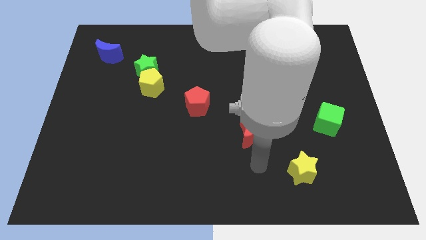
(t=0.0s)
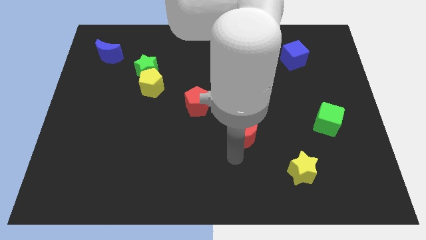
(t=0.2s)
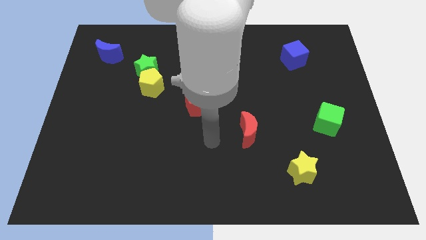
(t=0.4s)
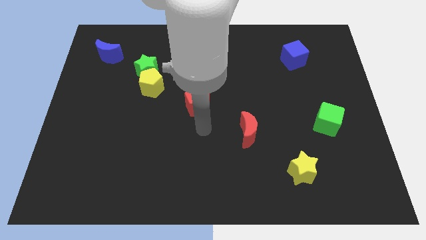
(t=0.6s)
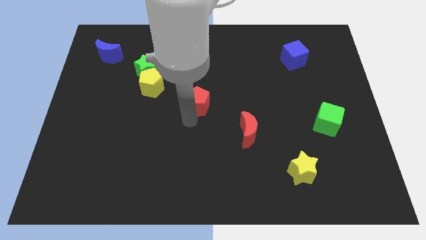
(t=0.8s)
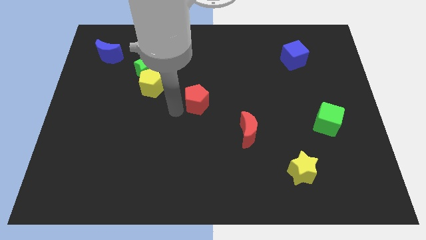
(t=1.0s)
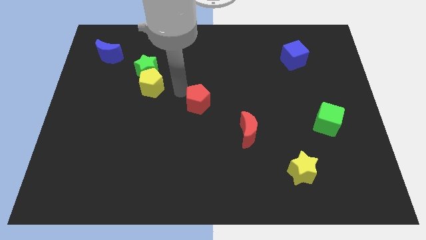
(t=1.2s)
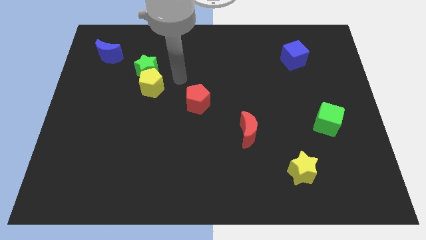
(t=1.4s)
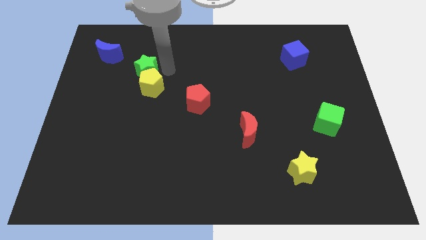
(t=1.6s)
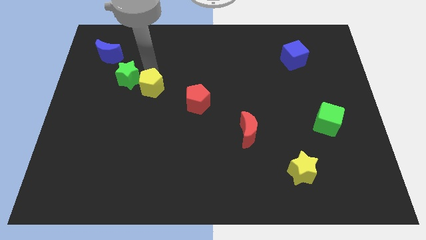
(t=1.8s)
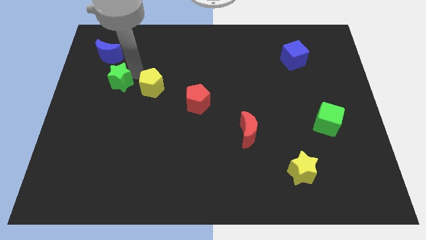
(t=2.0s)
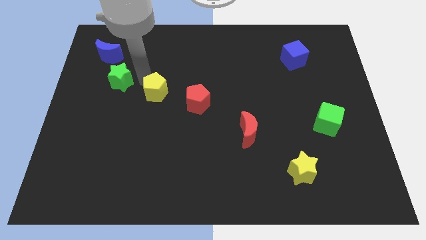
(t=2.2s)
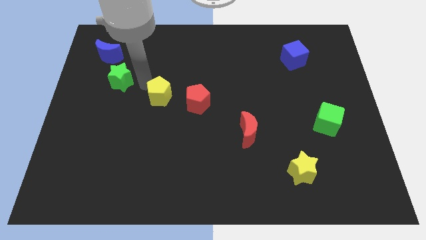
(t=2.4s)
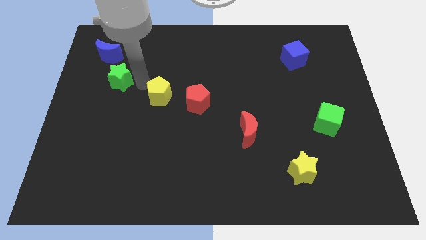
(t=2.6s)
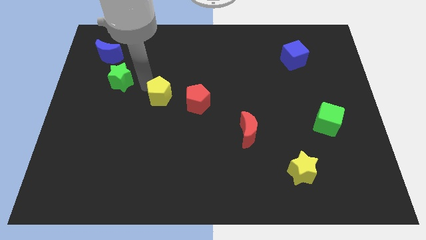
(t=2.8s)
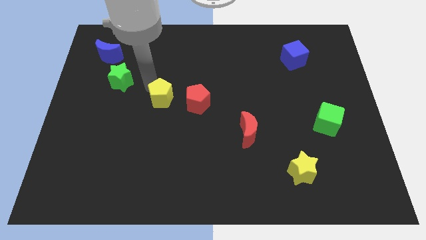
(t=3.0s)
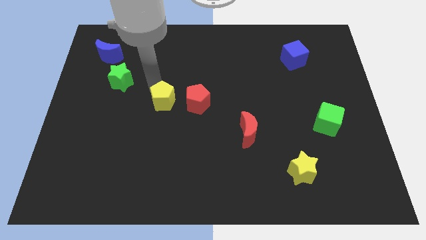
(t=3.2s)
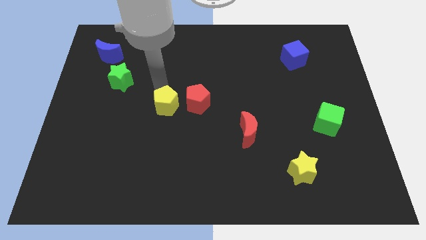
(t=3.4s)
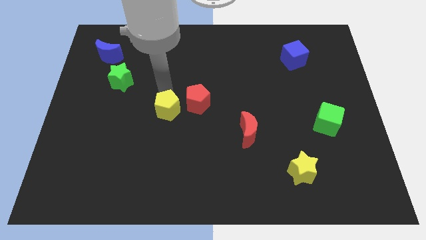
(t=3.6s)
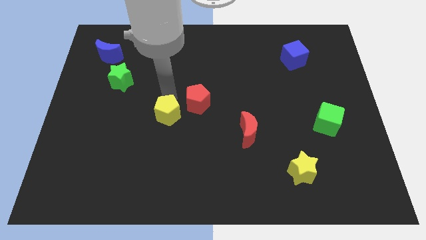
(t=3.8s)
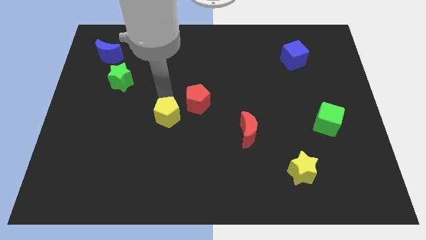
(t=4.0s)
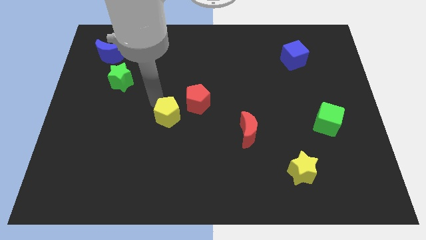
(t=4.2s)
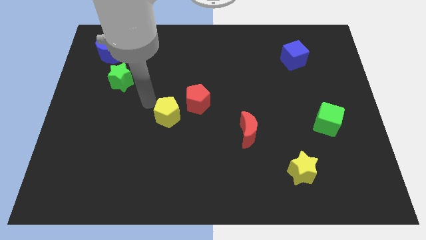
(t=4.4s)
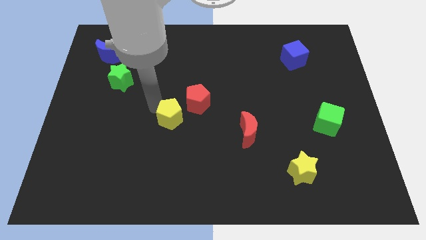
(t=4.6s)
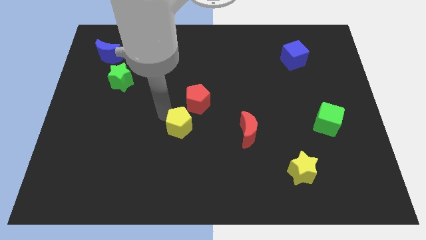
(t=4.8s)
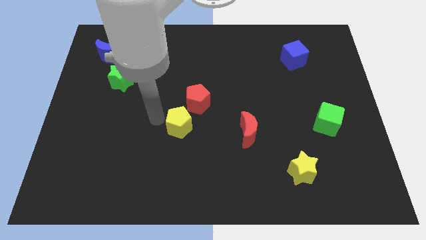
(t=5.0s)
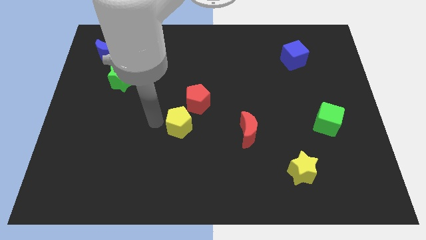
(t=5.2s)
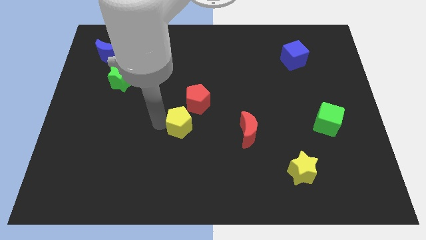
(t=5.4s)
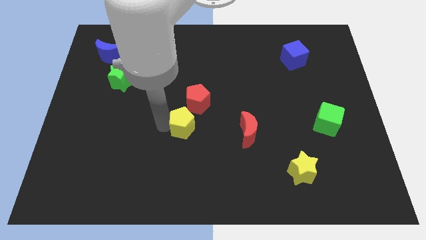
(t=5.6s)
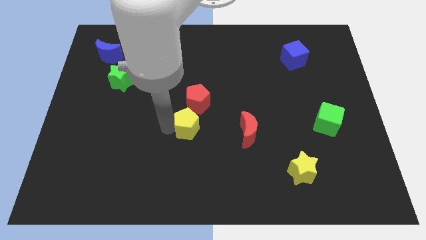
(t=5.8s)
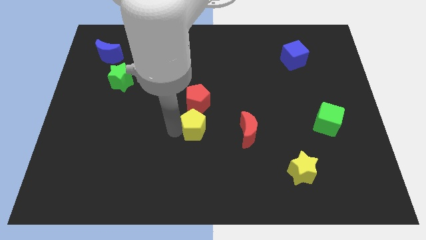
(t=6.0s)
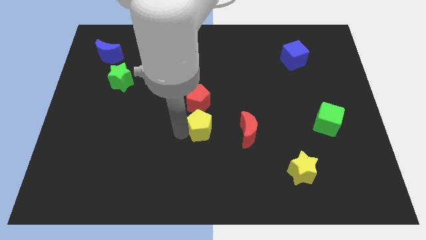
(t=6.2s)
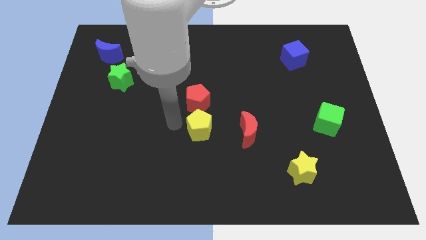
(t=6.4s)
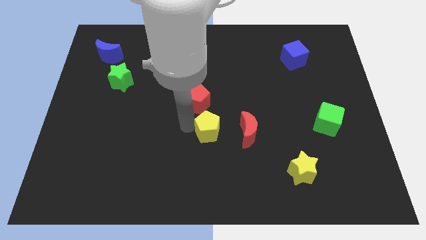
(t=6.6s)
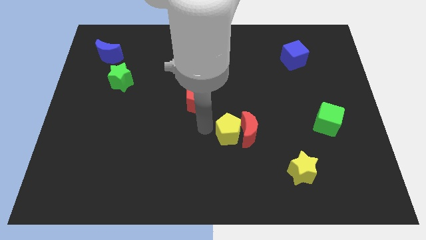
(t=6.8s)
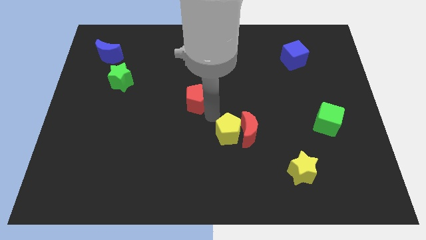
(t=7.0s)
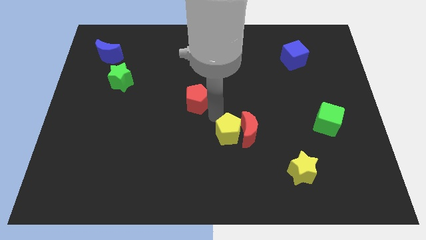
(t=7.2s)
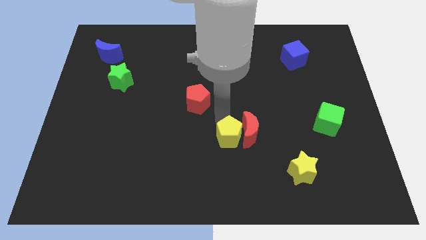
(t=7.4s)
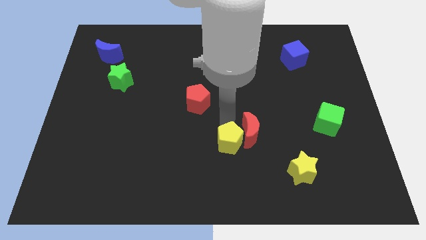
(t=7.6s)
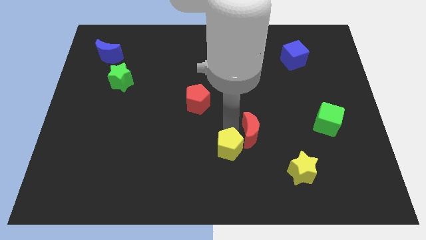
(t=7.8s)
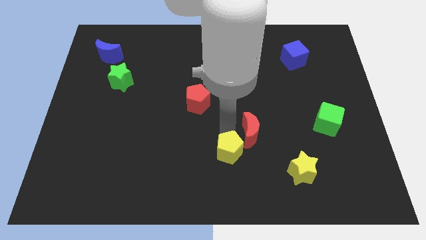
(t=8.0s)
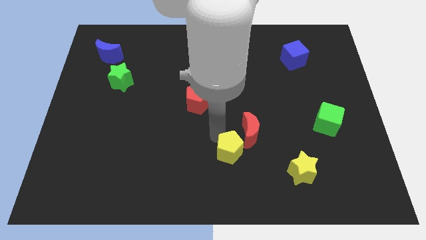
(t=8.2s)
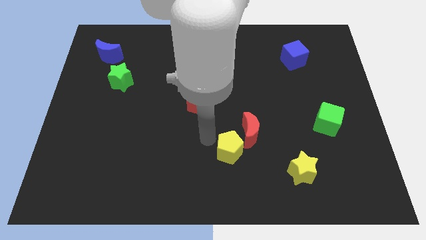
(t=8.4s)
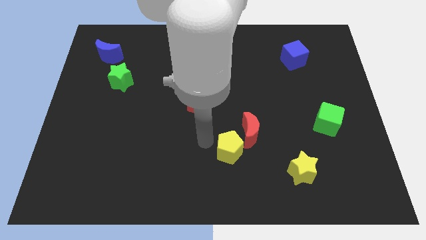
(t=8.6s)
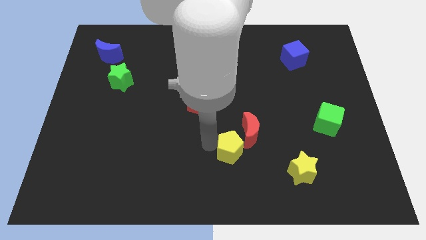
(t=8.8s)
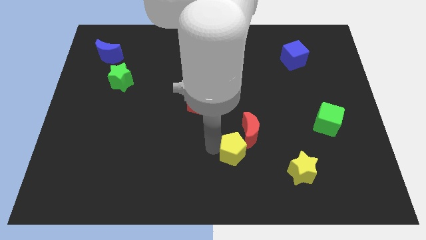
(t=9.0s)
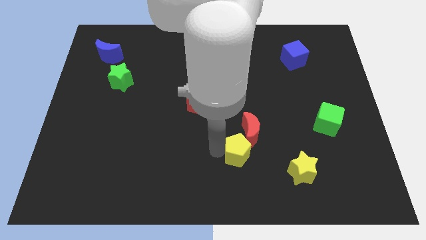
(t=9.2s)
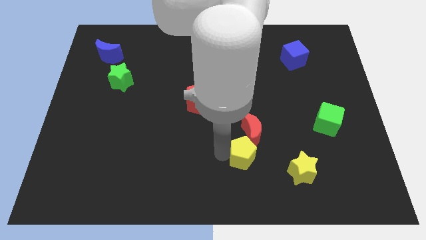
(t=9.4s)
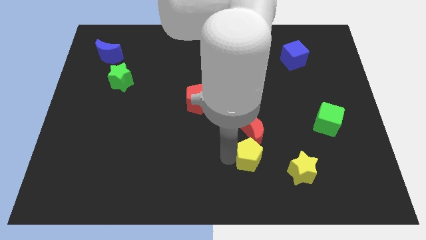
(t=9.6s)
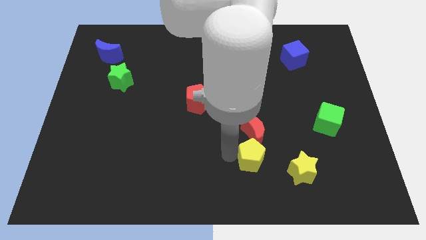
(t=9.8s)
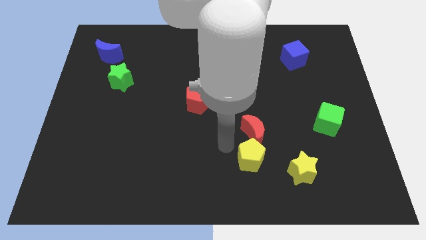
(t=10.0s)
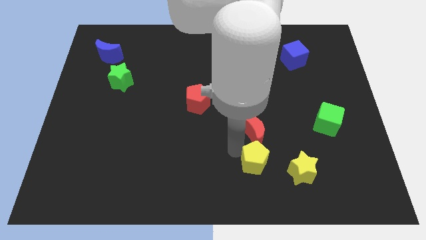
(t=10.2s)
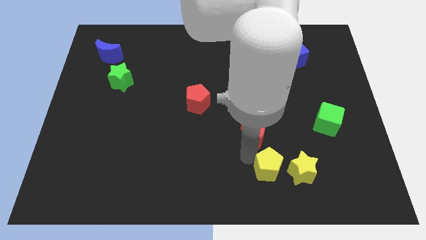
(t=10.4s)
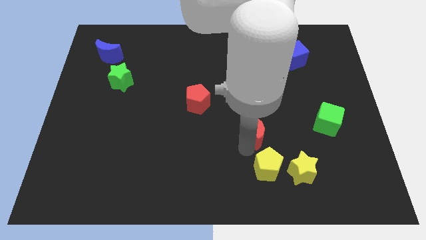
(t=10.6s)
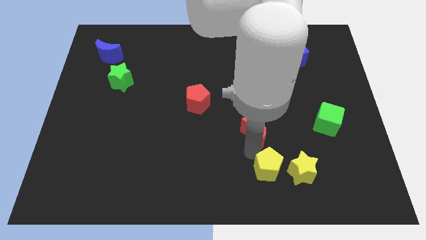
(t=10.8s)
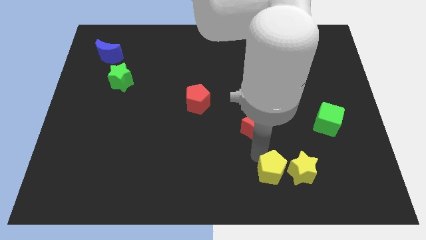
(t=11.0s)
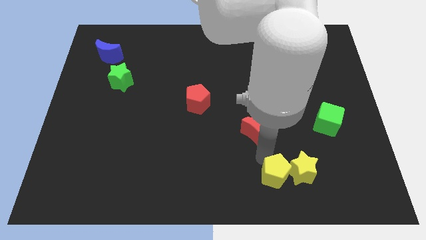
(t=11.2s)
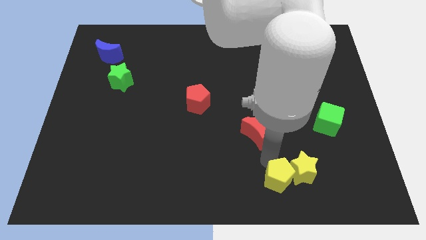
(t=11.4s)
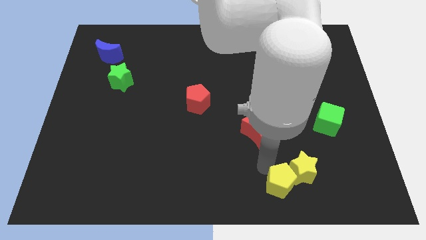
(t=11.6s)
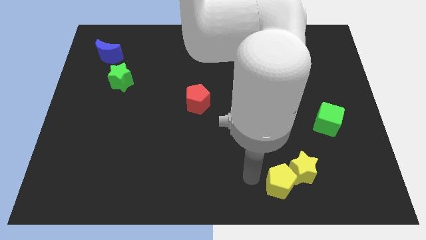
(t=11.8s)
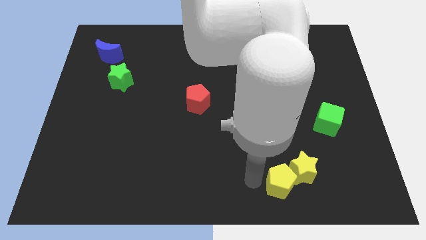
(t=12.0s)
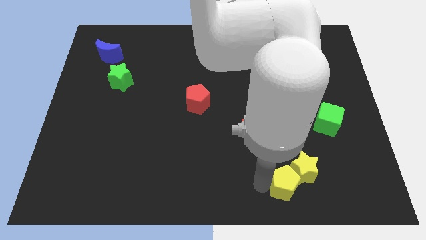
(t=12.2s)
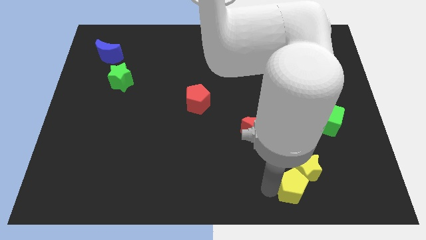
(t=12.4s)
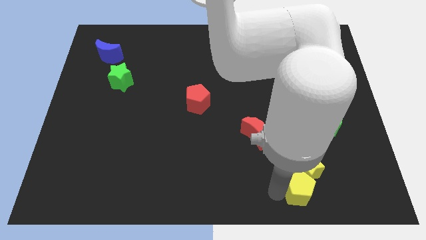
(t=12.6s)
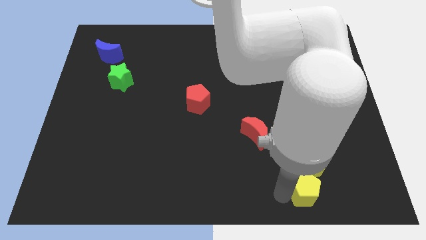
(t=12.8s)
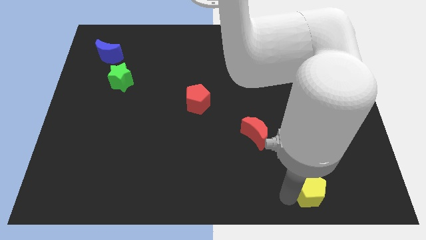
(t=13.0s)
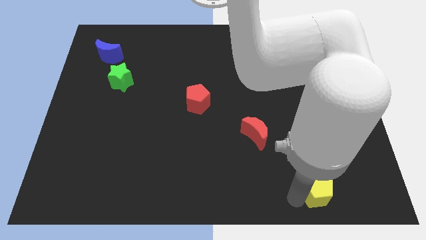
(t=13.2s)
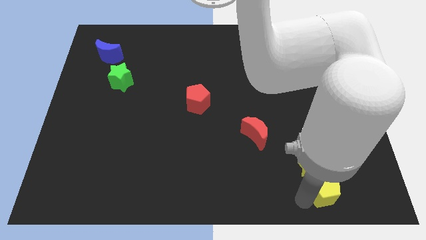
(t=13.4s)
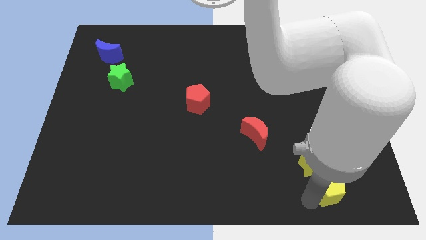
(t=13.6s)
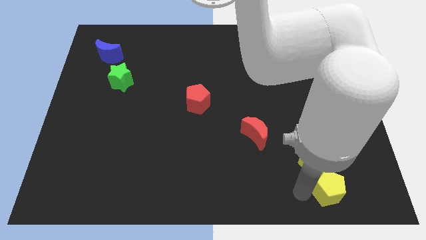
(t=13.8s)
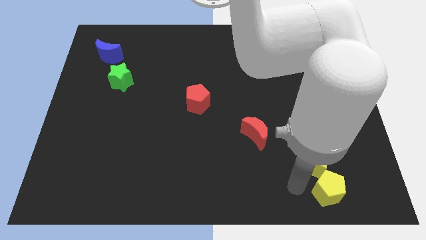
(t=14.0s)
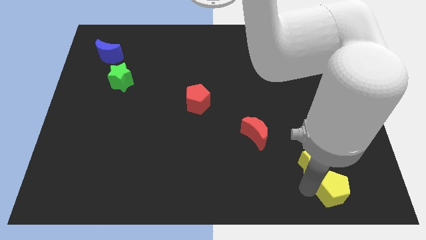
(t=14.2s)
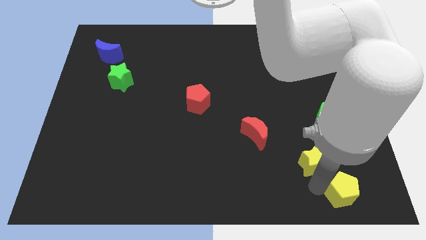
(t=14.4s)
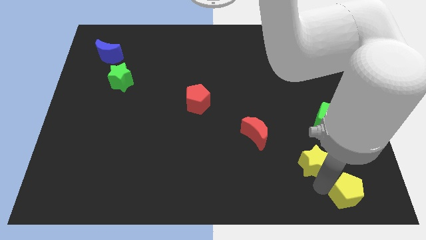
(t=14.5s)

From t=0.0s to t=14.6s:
slide the yellow pentagon to the bottom right corner
